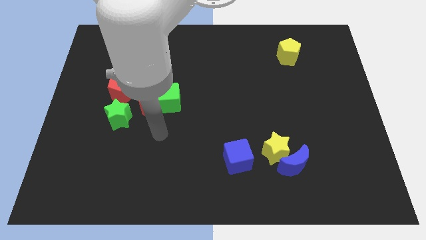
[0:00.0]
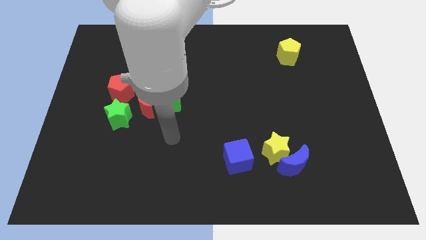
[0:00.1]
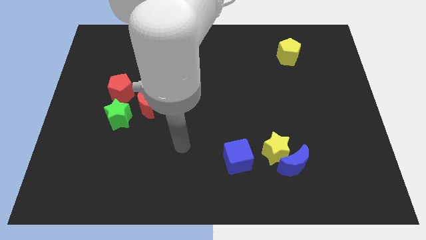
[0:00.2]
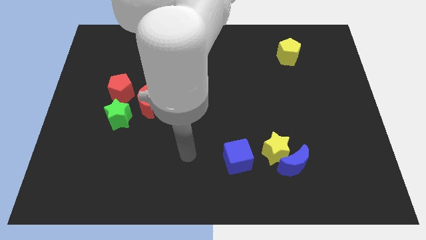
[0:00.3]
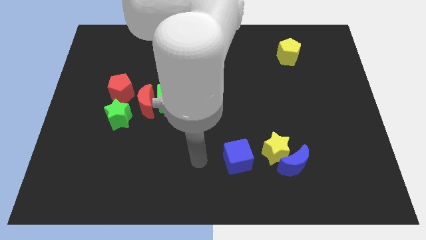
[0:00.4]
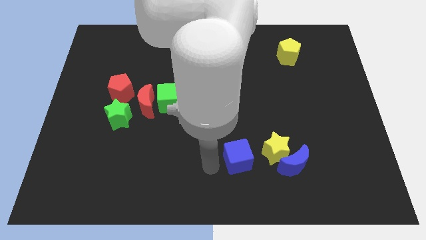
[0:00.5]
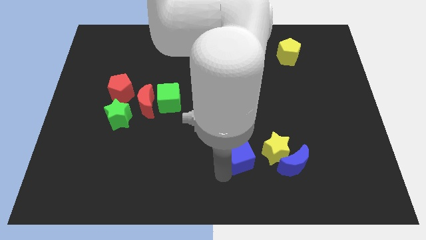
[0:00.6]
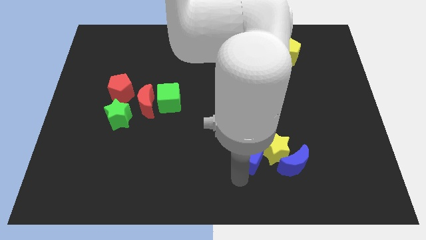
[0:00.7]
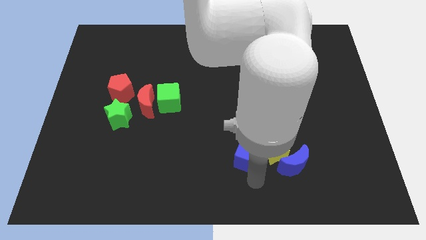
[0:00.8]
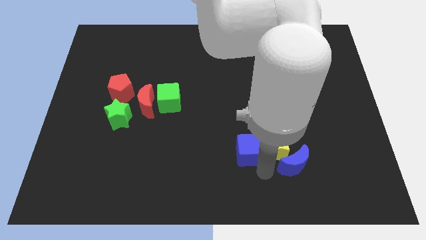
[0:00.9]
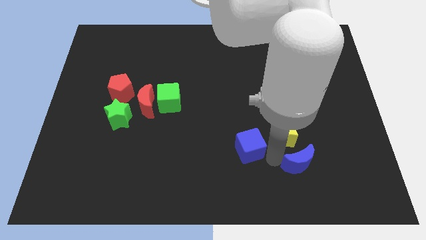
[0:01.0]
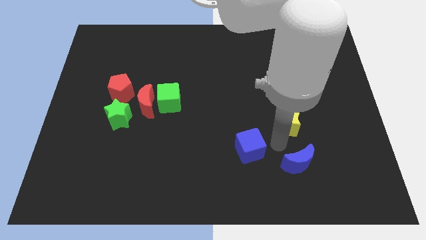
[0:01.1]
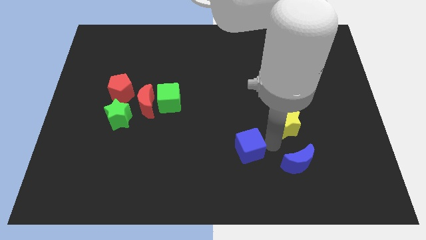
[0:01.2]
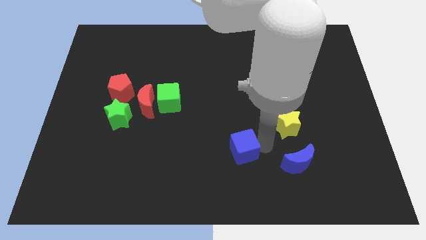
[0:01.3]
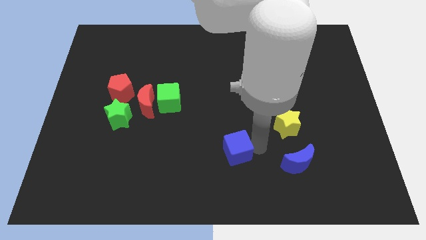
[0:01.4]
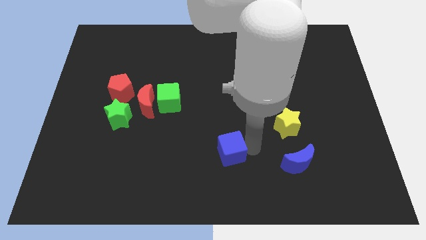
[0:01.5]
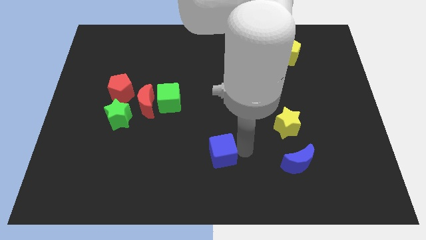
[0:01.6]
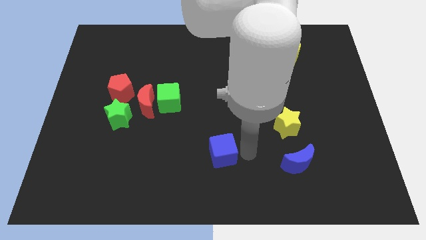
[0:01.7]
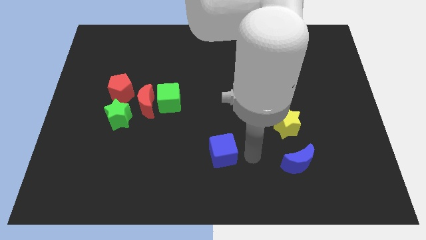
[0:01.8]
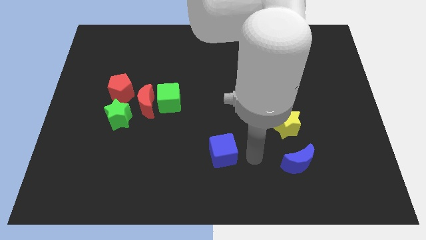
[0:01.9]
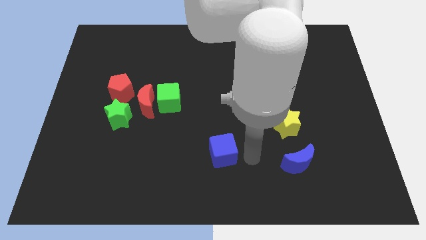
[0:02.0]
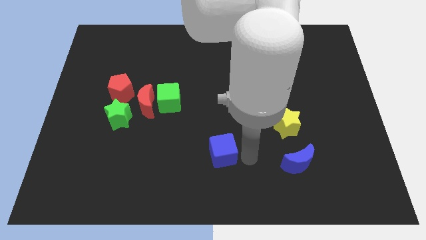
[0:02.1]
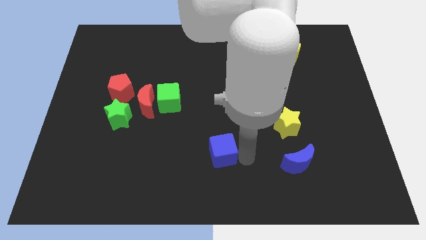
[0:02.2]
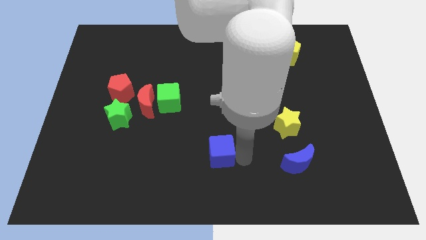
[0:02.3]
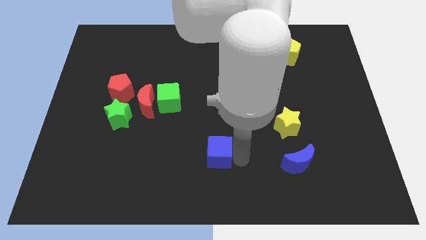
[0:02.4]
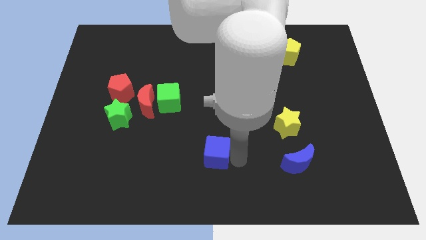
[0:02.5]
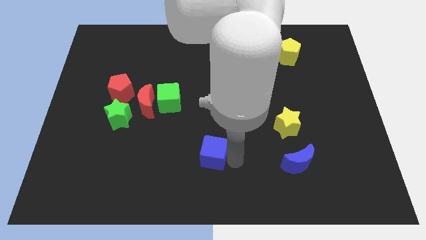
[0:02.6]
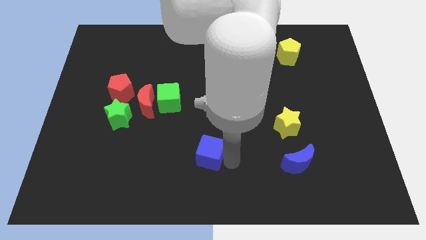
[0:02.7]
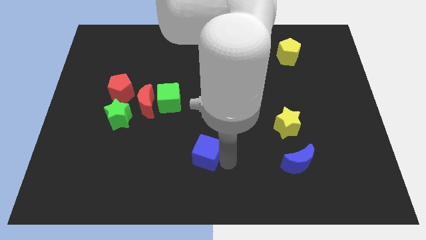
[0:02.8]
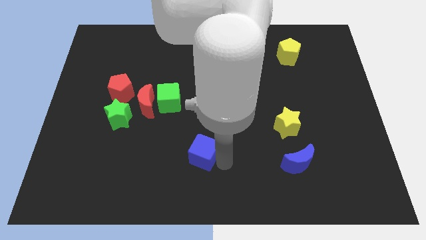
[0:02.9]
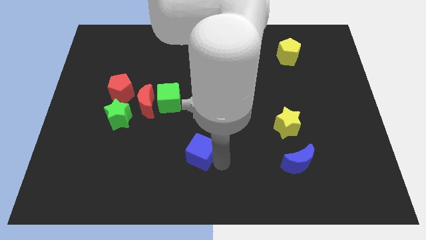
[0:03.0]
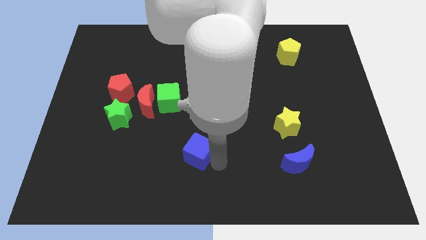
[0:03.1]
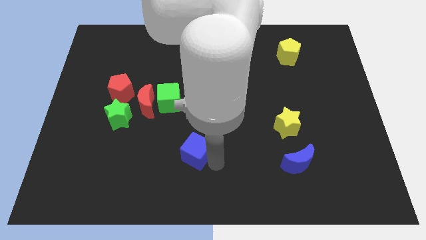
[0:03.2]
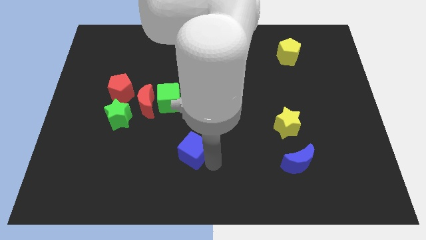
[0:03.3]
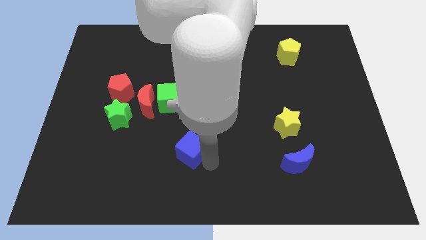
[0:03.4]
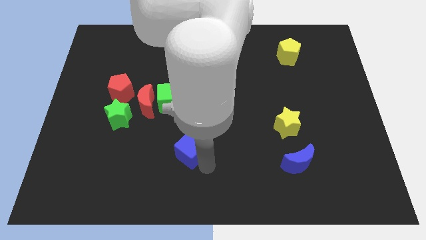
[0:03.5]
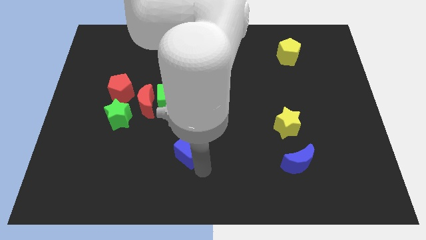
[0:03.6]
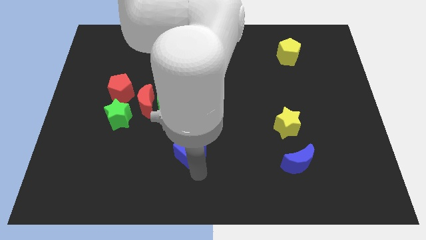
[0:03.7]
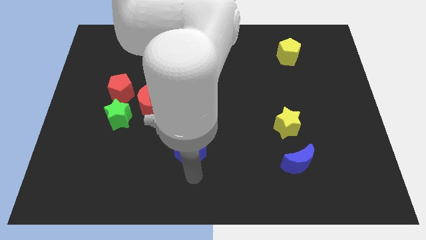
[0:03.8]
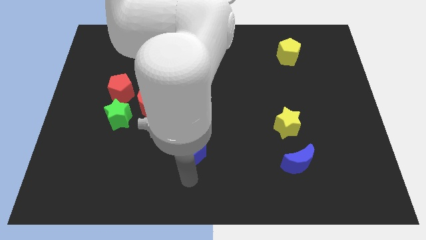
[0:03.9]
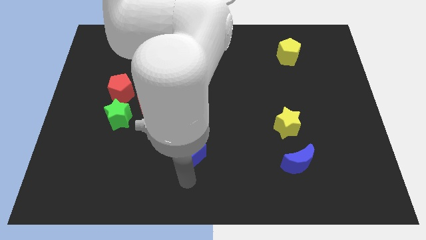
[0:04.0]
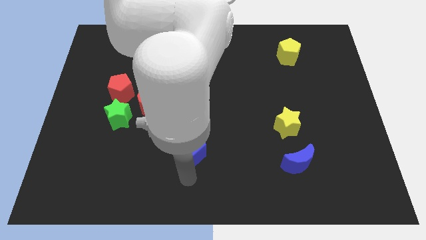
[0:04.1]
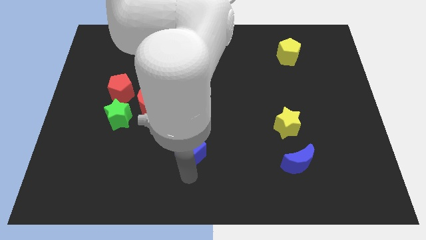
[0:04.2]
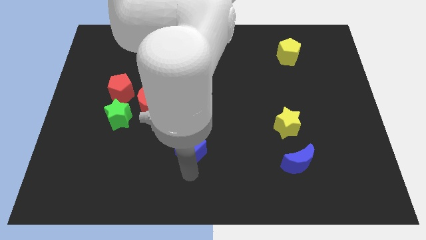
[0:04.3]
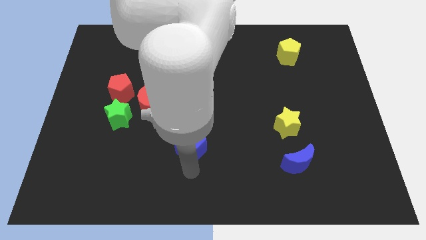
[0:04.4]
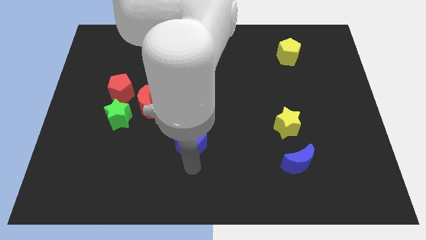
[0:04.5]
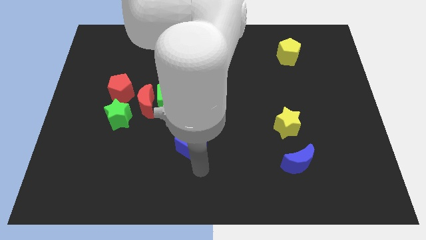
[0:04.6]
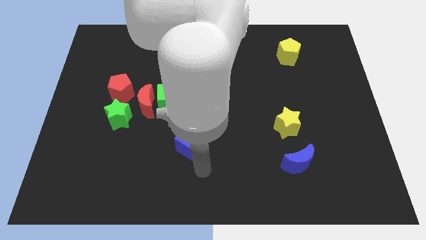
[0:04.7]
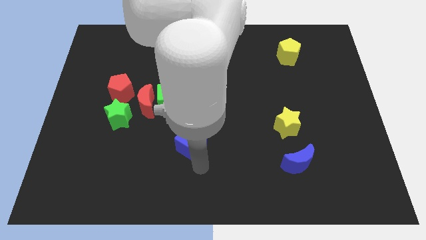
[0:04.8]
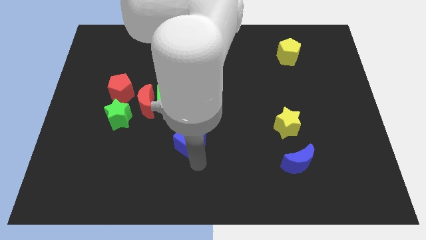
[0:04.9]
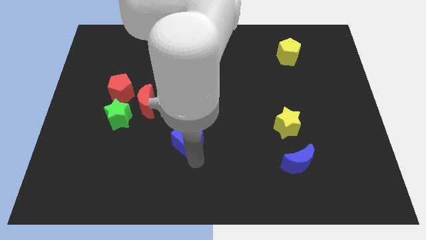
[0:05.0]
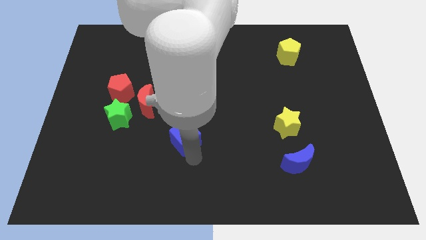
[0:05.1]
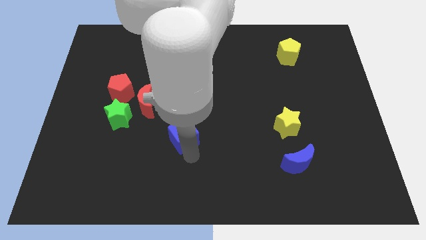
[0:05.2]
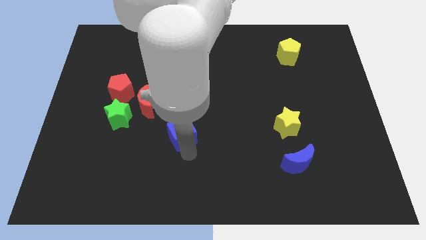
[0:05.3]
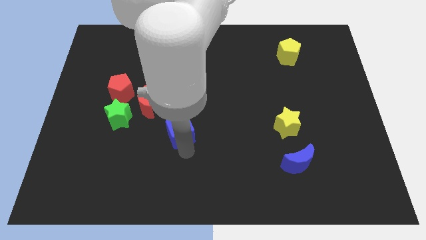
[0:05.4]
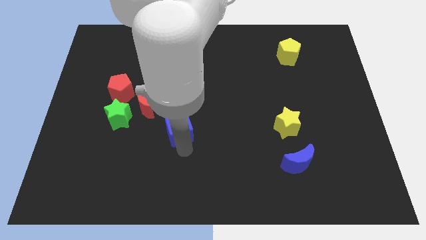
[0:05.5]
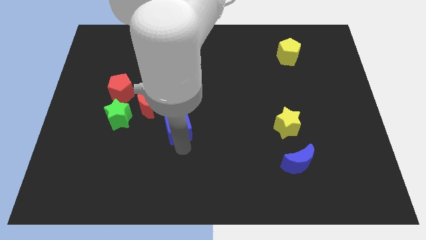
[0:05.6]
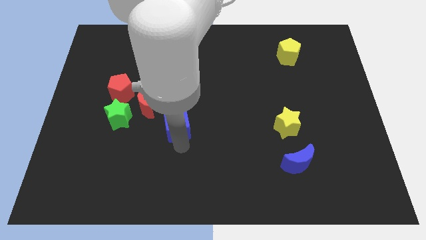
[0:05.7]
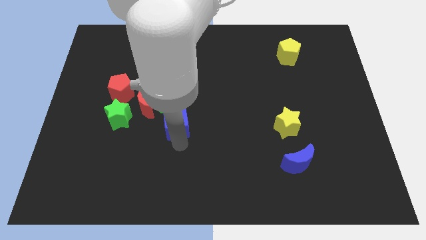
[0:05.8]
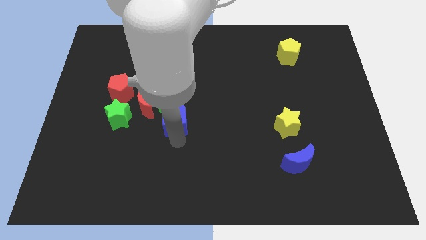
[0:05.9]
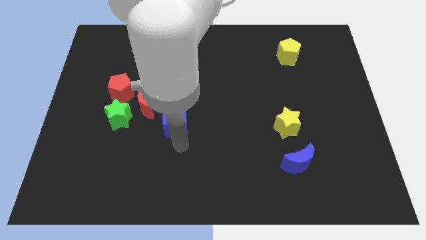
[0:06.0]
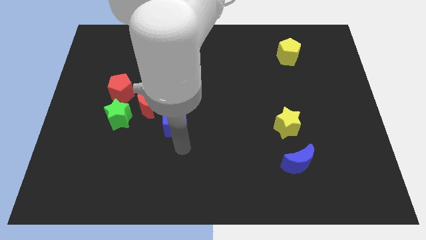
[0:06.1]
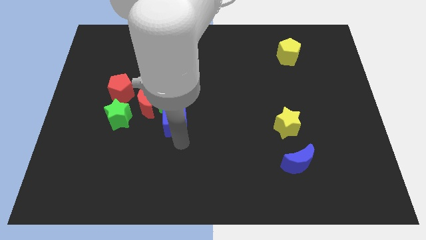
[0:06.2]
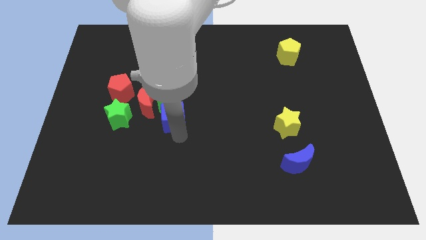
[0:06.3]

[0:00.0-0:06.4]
put the blue cube towards the green cube

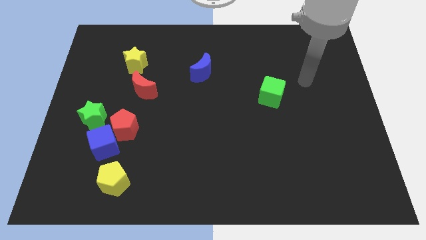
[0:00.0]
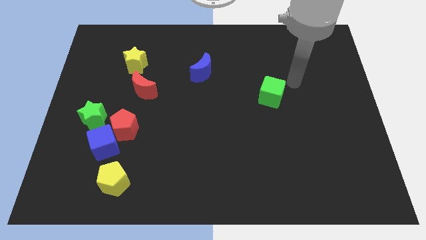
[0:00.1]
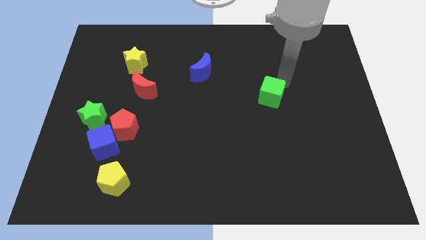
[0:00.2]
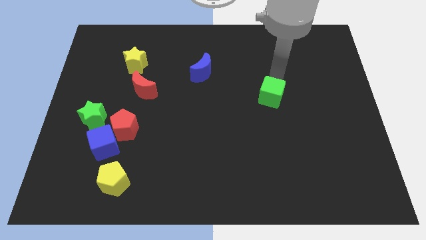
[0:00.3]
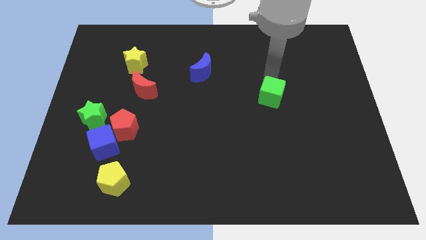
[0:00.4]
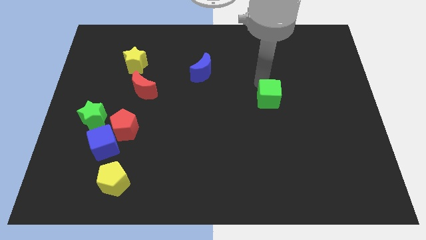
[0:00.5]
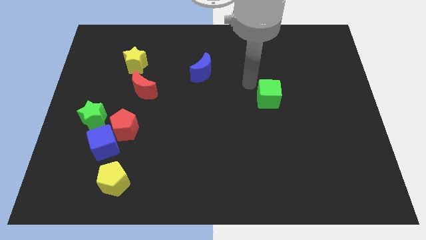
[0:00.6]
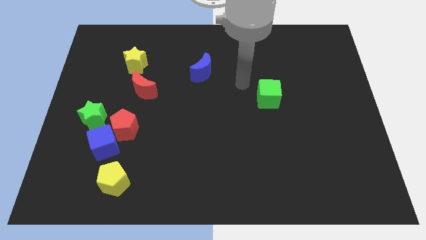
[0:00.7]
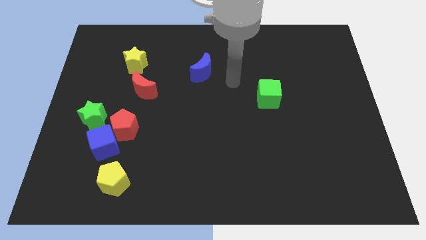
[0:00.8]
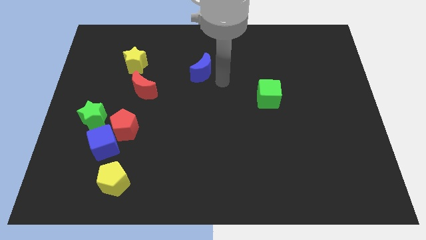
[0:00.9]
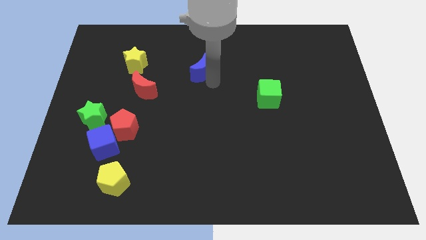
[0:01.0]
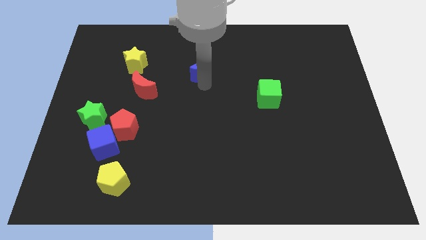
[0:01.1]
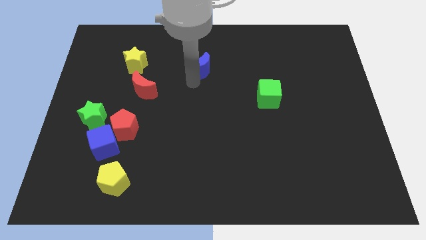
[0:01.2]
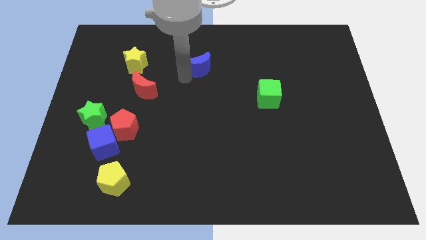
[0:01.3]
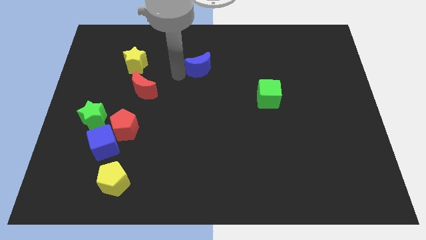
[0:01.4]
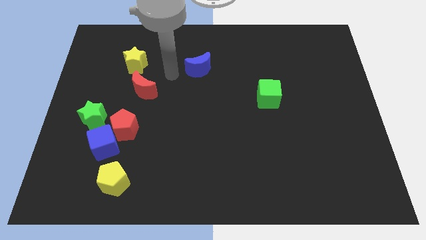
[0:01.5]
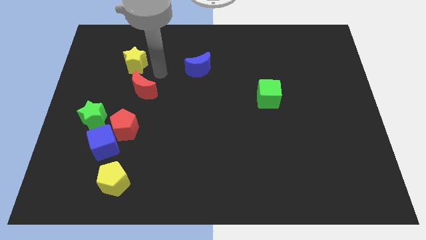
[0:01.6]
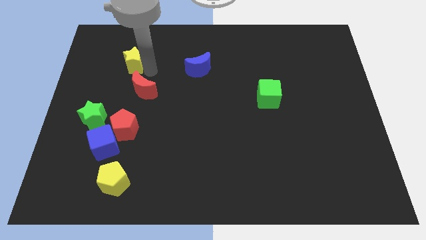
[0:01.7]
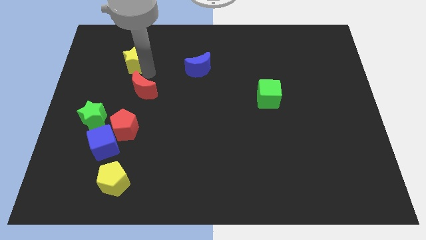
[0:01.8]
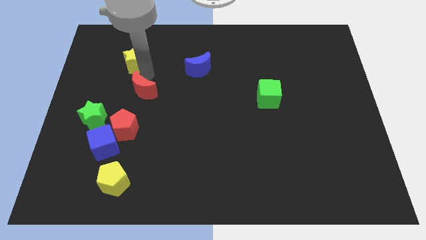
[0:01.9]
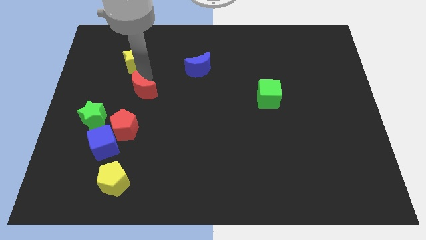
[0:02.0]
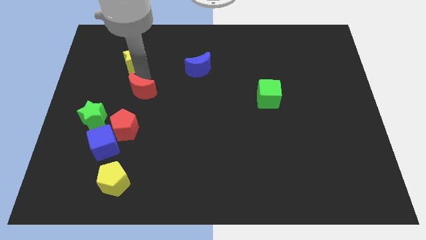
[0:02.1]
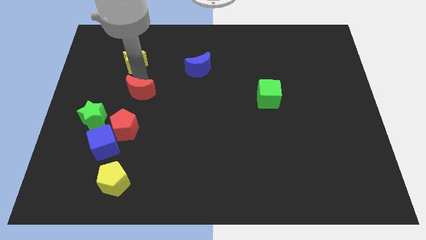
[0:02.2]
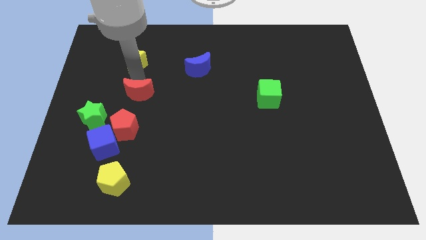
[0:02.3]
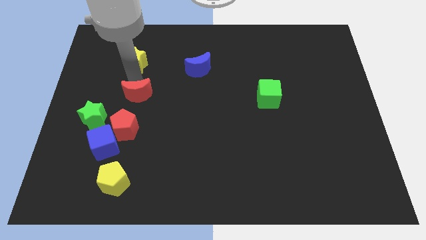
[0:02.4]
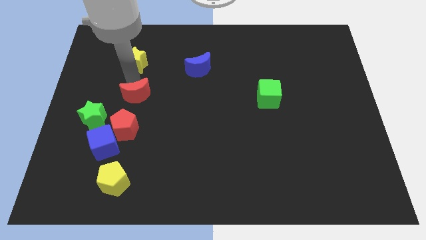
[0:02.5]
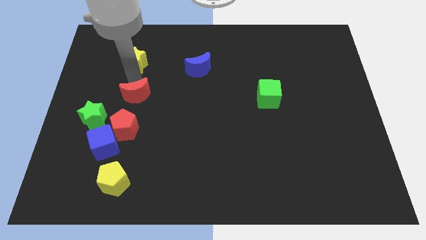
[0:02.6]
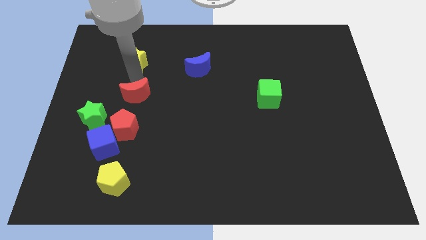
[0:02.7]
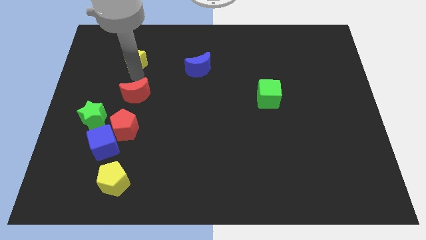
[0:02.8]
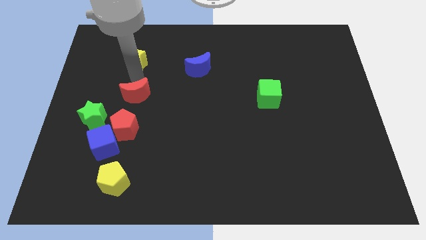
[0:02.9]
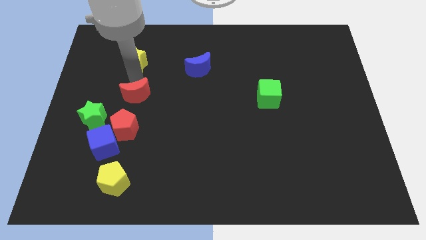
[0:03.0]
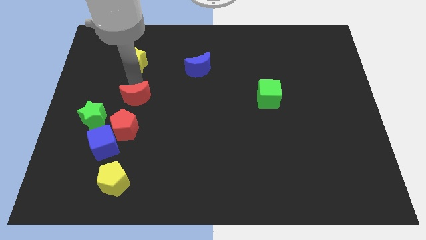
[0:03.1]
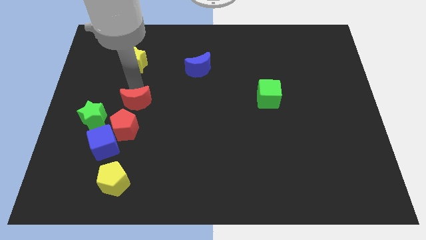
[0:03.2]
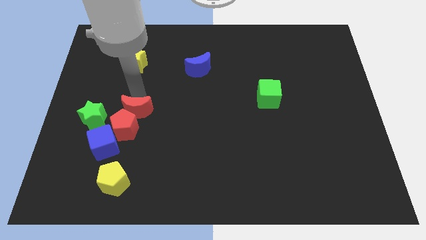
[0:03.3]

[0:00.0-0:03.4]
move the red moon next to the red pentagon
